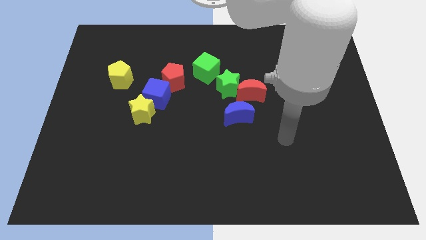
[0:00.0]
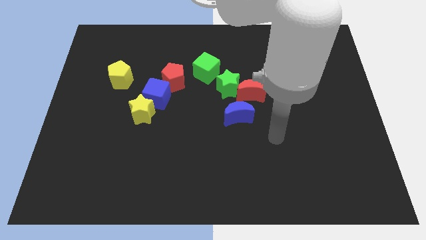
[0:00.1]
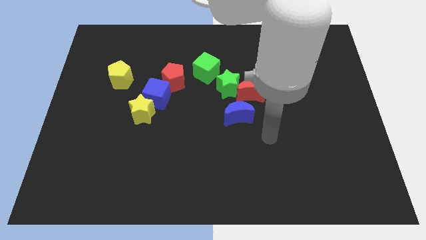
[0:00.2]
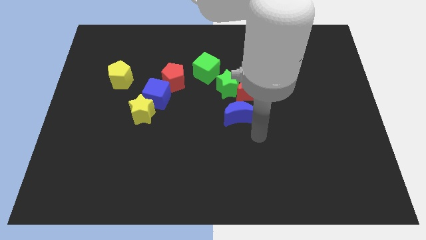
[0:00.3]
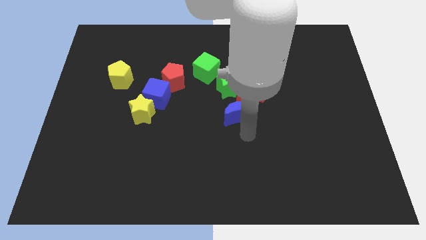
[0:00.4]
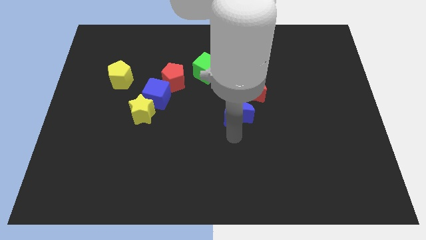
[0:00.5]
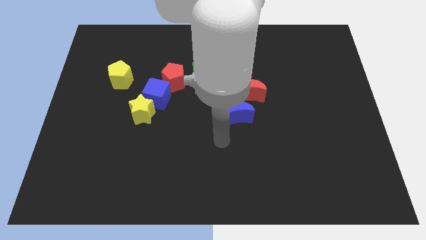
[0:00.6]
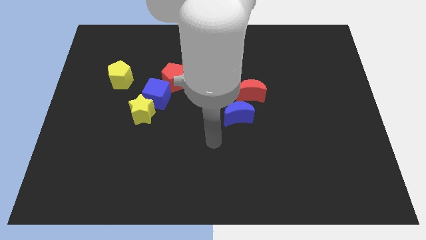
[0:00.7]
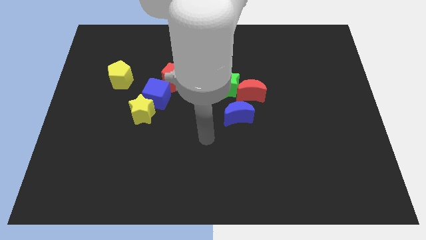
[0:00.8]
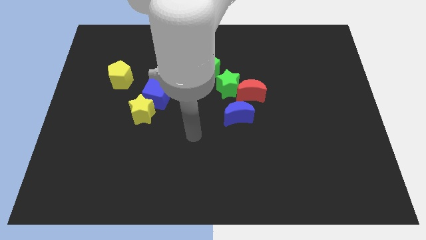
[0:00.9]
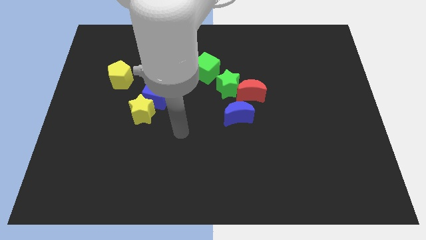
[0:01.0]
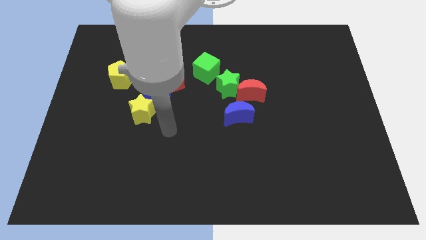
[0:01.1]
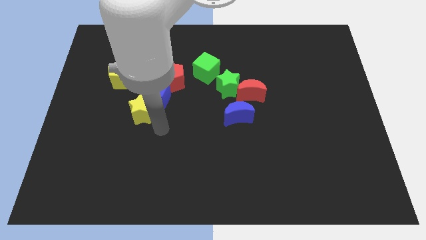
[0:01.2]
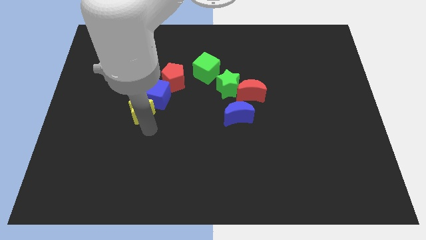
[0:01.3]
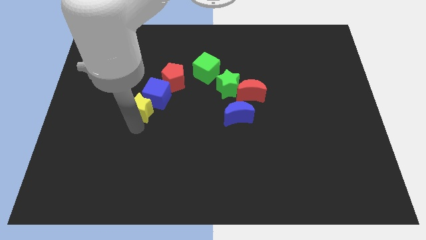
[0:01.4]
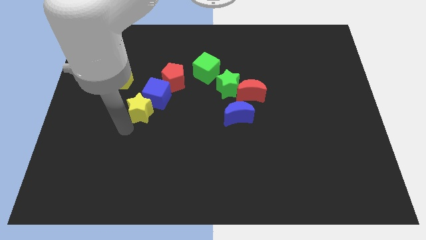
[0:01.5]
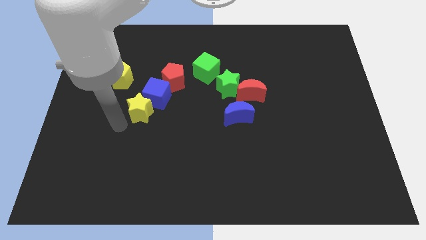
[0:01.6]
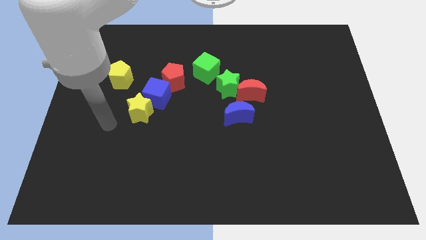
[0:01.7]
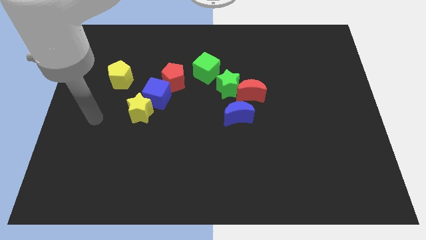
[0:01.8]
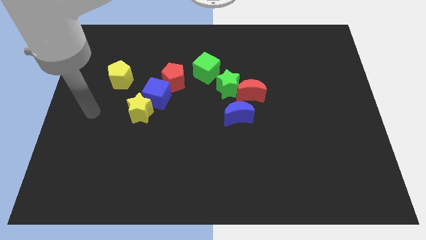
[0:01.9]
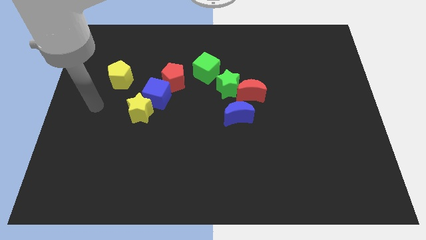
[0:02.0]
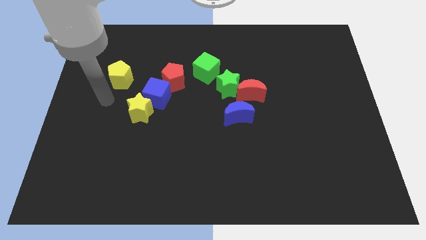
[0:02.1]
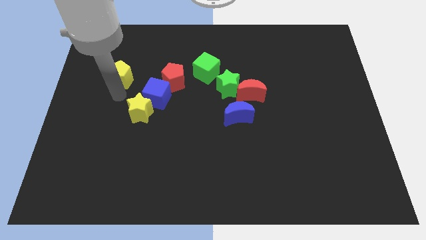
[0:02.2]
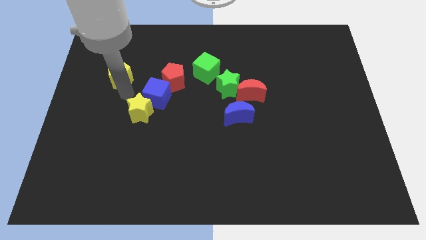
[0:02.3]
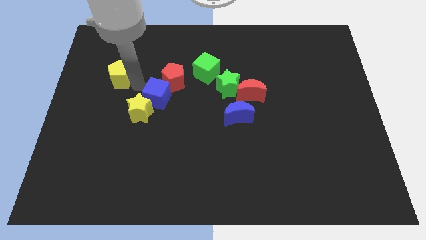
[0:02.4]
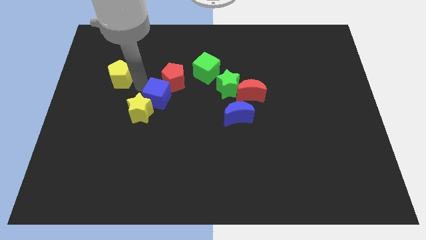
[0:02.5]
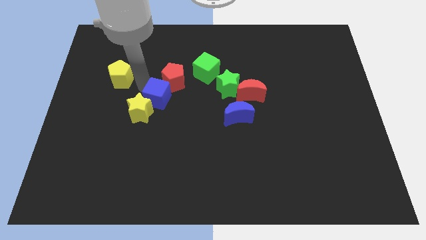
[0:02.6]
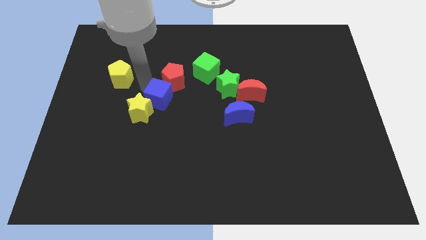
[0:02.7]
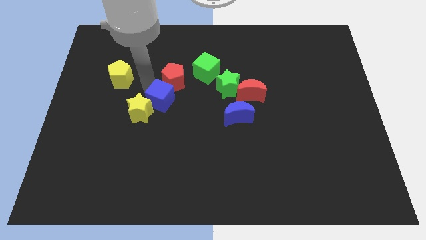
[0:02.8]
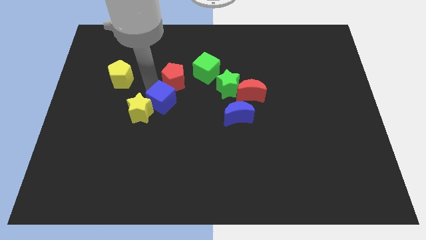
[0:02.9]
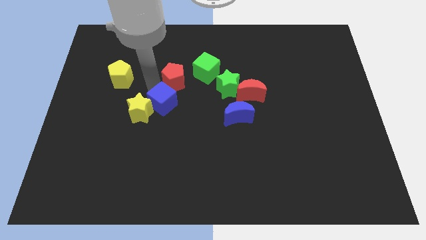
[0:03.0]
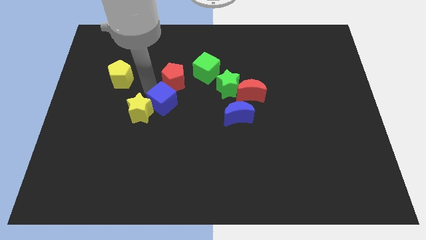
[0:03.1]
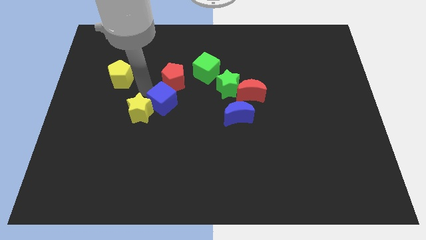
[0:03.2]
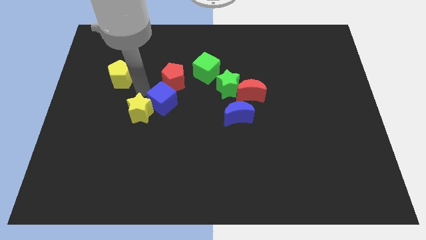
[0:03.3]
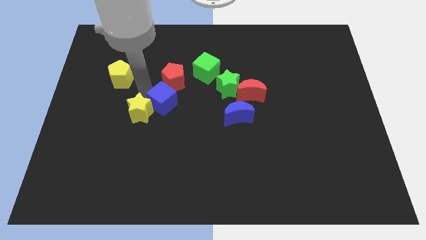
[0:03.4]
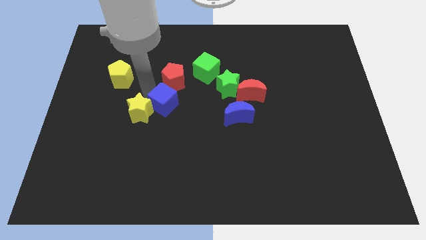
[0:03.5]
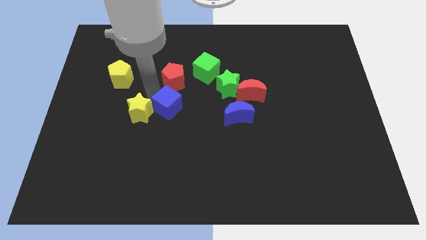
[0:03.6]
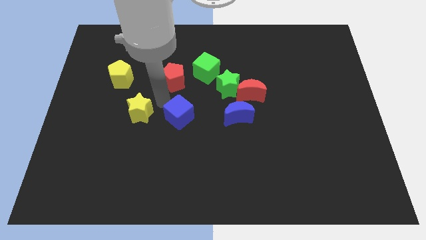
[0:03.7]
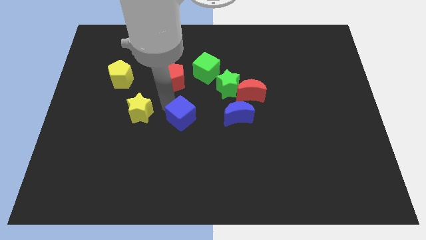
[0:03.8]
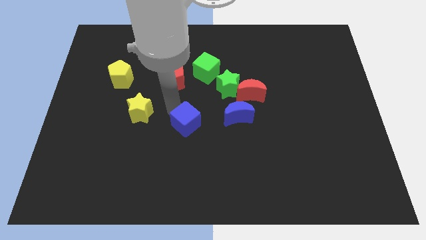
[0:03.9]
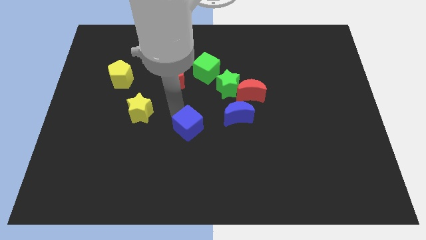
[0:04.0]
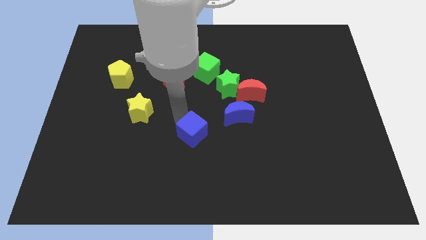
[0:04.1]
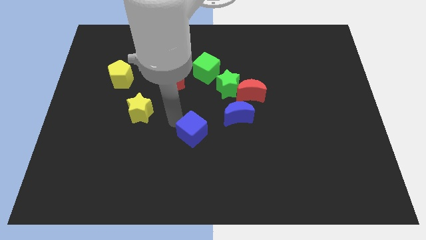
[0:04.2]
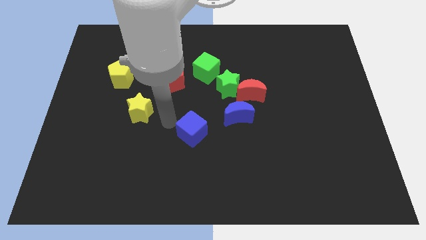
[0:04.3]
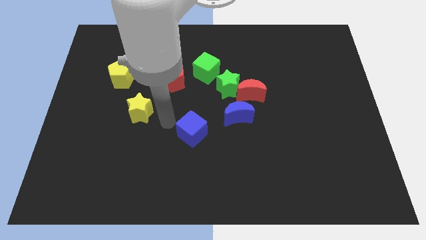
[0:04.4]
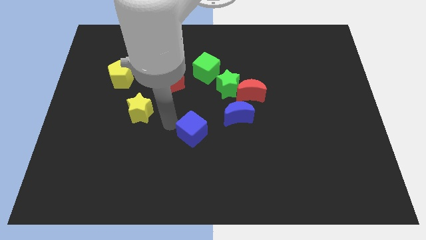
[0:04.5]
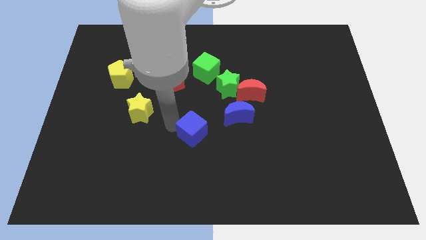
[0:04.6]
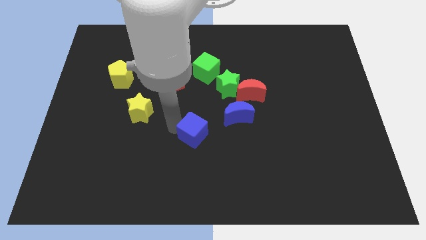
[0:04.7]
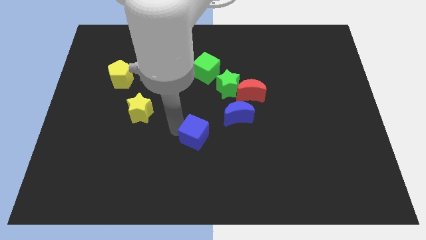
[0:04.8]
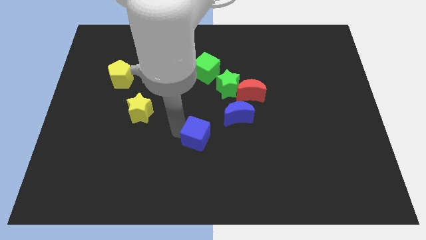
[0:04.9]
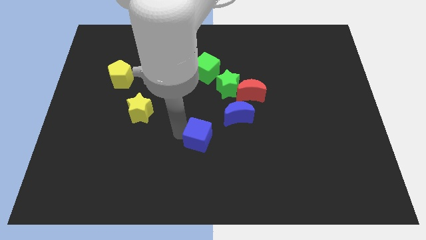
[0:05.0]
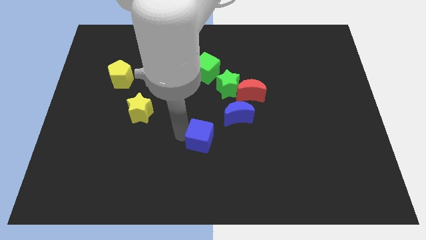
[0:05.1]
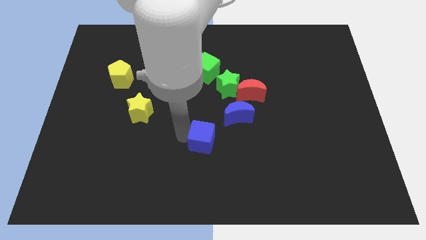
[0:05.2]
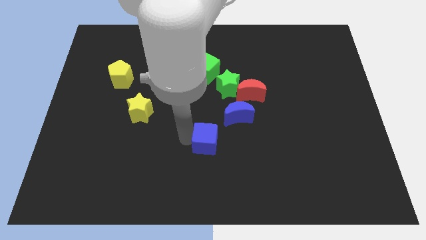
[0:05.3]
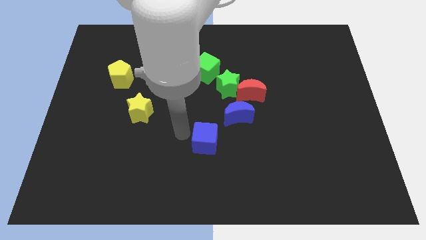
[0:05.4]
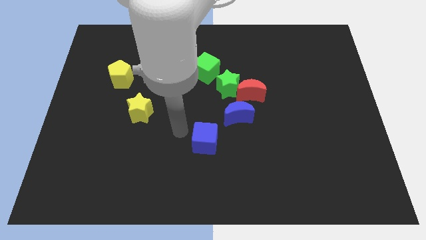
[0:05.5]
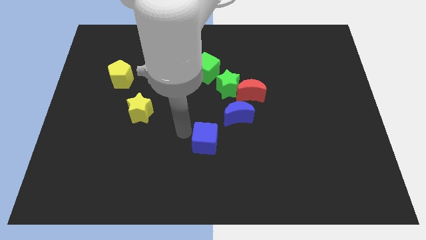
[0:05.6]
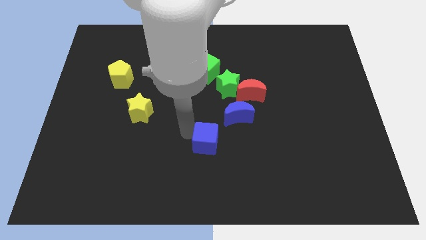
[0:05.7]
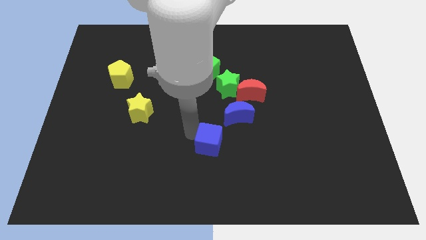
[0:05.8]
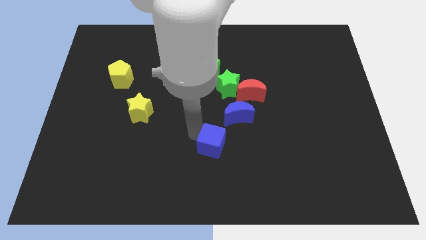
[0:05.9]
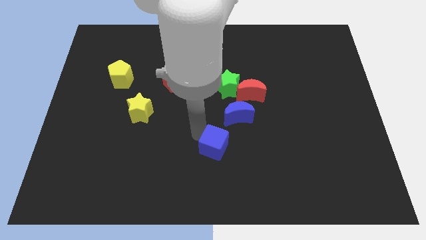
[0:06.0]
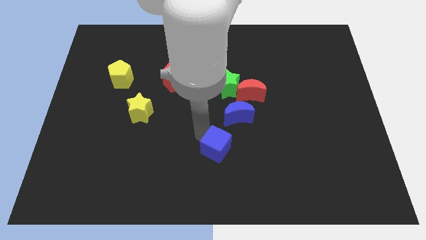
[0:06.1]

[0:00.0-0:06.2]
slide the blue cube to the bottom of the blue moon
